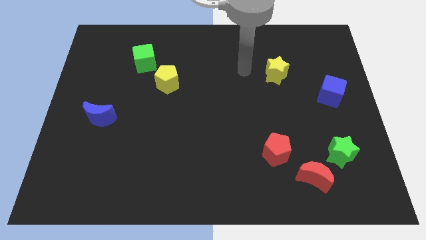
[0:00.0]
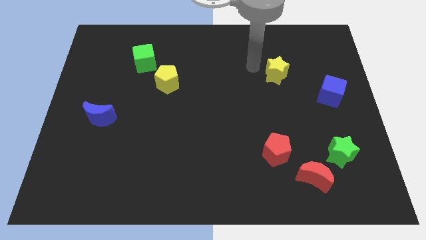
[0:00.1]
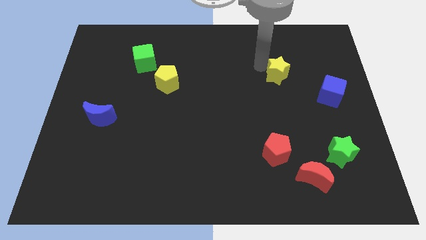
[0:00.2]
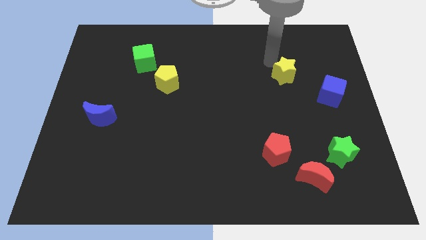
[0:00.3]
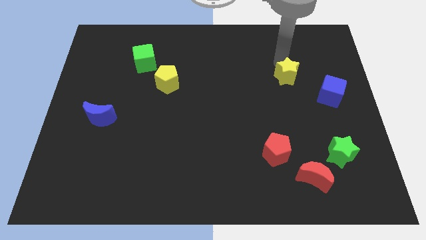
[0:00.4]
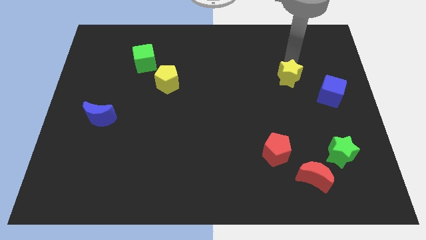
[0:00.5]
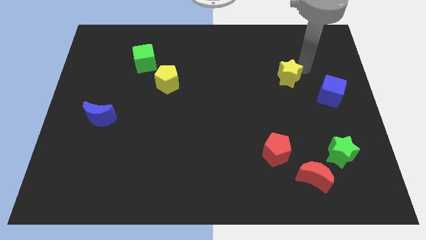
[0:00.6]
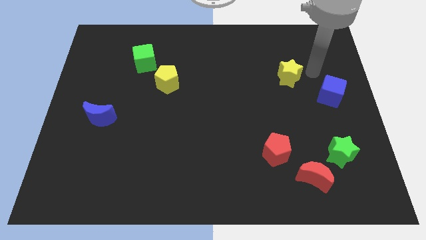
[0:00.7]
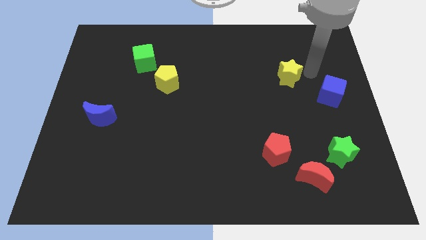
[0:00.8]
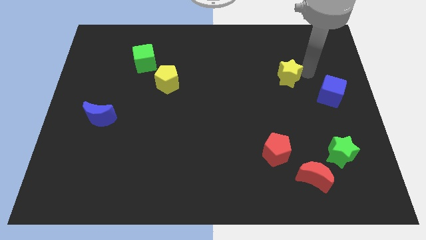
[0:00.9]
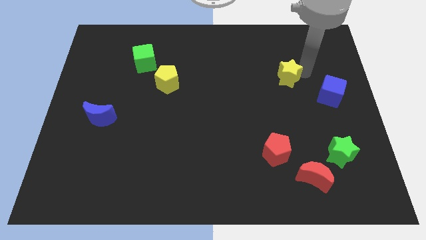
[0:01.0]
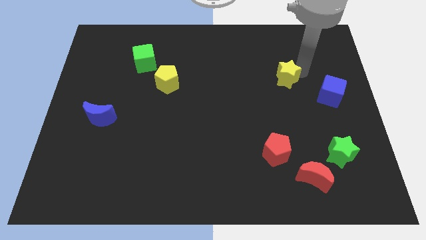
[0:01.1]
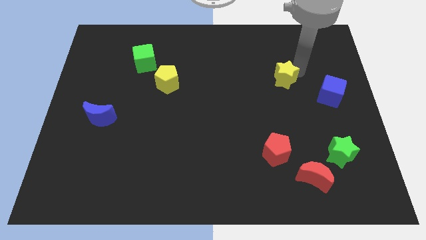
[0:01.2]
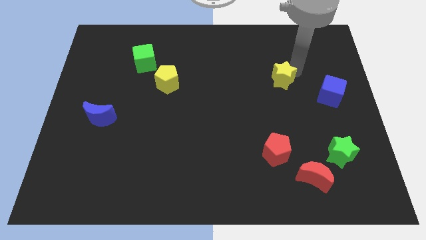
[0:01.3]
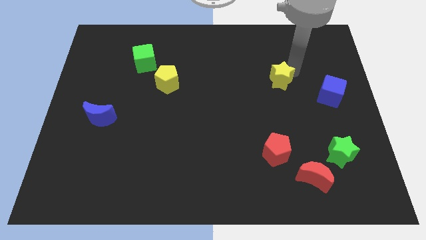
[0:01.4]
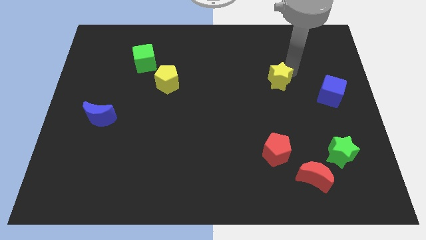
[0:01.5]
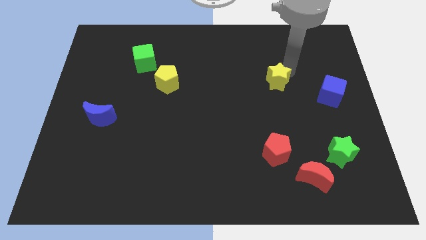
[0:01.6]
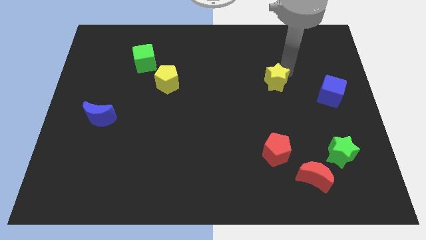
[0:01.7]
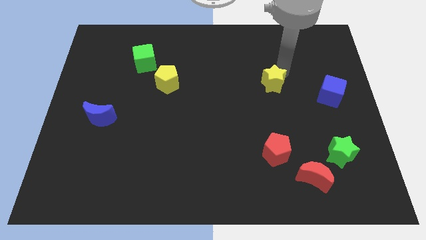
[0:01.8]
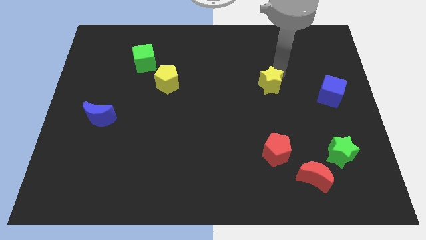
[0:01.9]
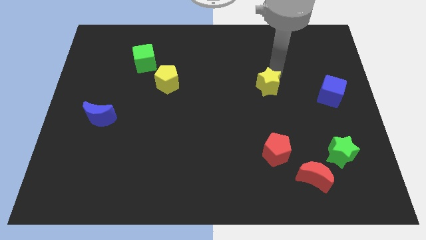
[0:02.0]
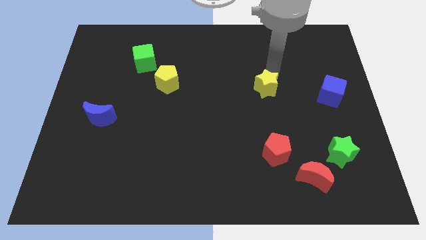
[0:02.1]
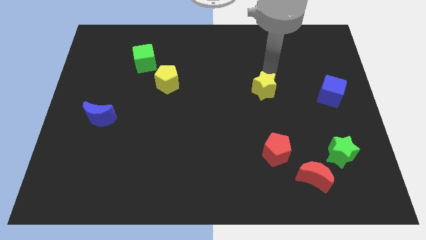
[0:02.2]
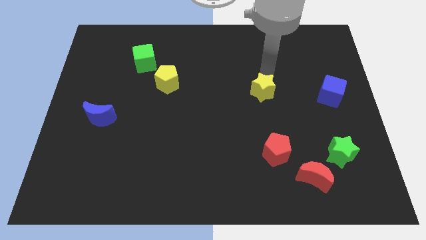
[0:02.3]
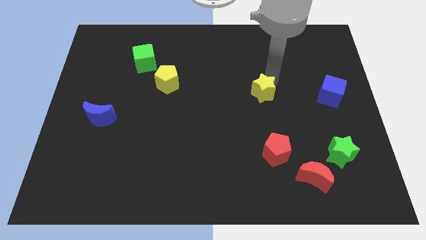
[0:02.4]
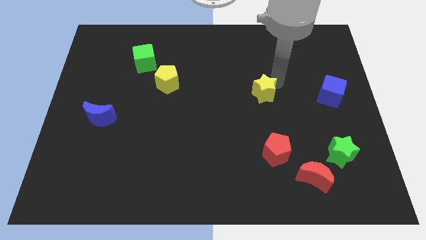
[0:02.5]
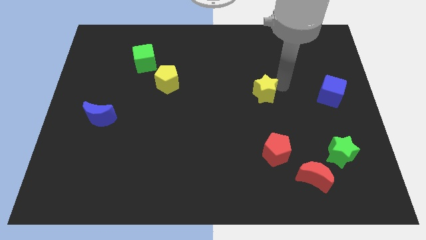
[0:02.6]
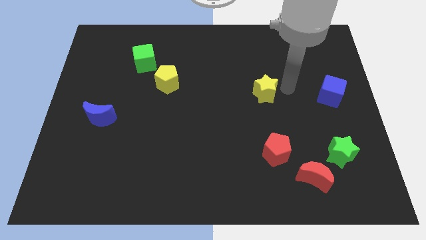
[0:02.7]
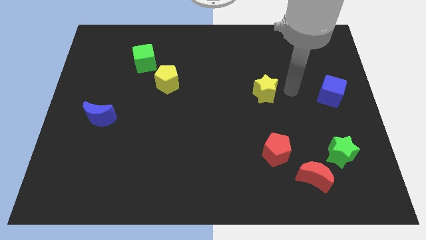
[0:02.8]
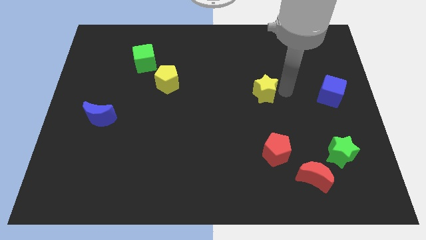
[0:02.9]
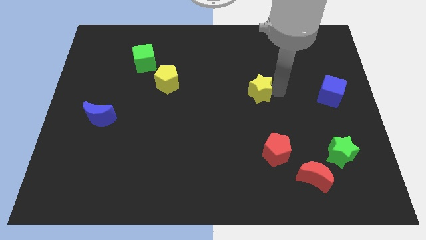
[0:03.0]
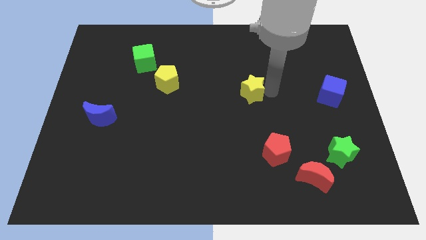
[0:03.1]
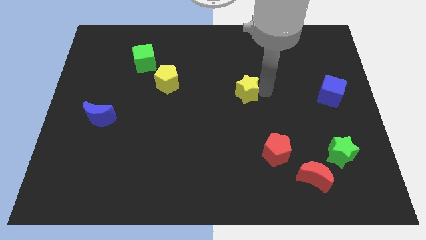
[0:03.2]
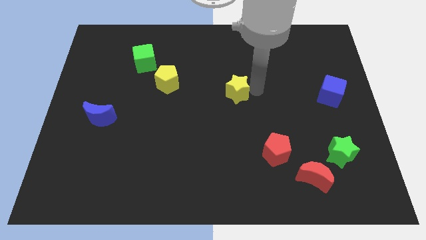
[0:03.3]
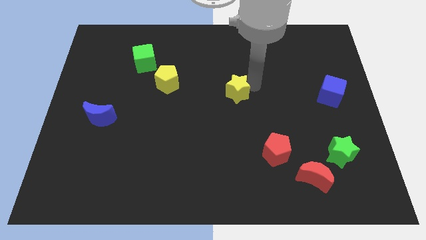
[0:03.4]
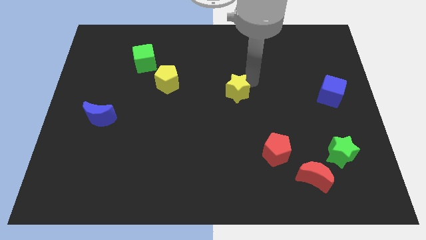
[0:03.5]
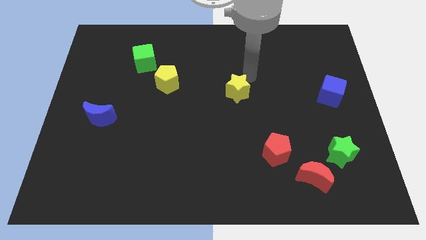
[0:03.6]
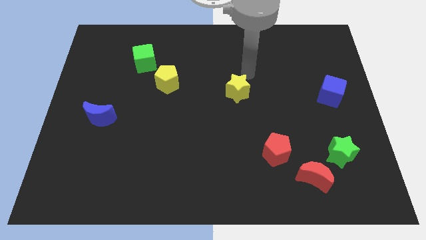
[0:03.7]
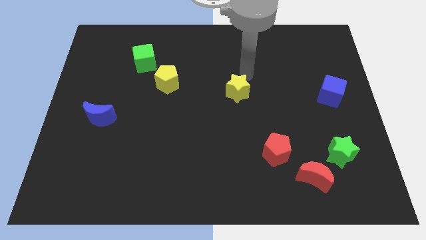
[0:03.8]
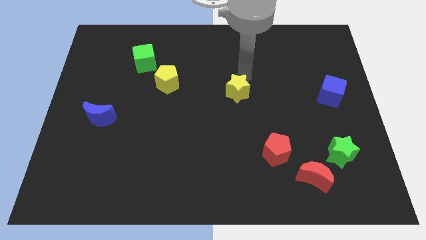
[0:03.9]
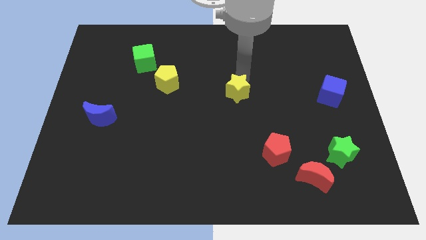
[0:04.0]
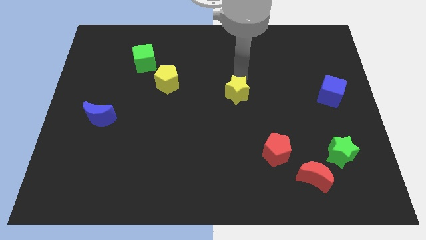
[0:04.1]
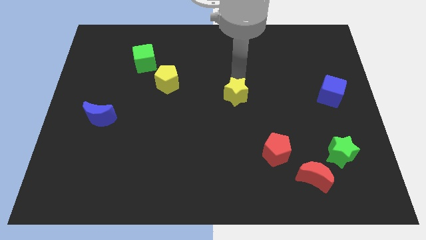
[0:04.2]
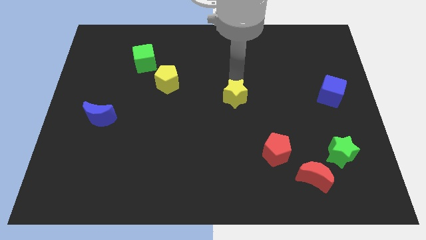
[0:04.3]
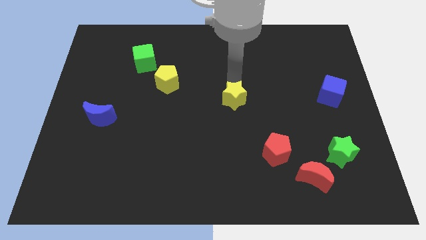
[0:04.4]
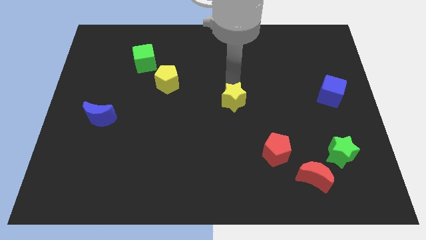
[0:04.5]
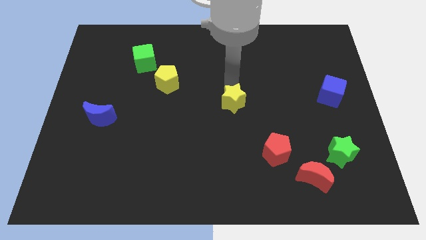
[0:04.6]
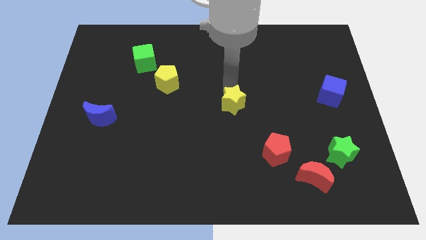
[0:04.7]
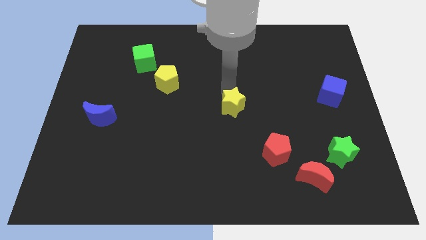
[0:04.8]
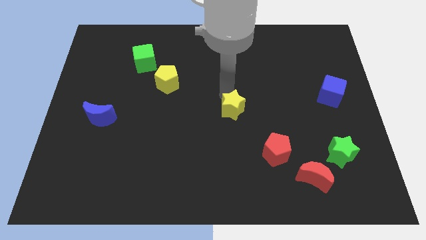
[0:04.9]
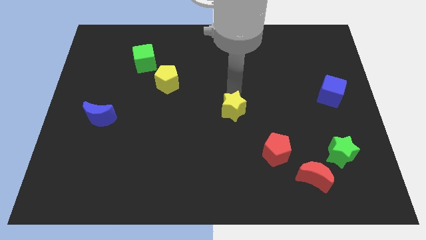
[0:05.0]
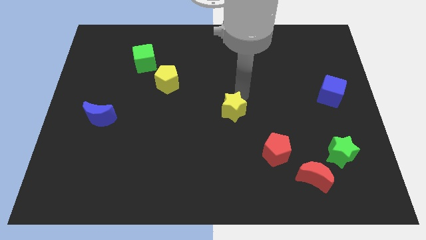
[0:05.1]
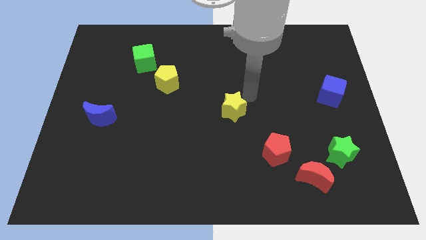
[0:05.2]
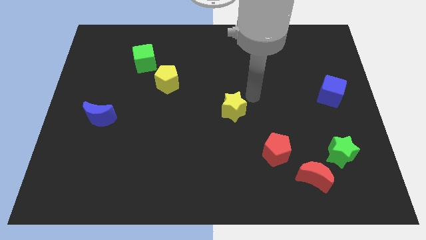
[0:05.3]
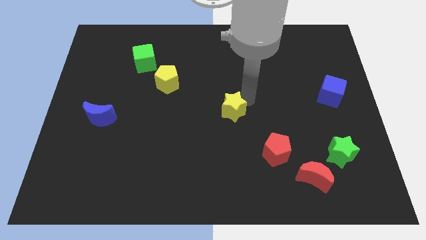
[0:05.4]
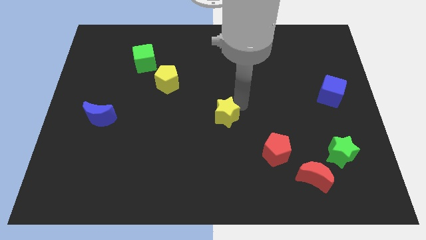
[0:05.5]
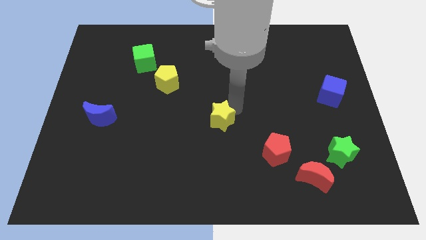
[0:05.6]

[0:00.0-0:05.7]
push the yellow star downwards and left diagonally

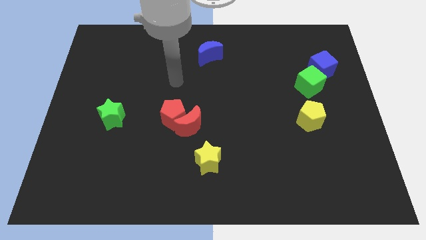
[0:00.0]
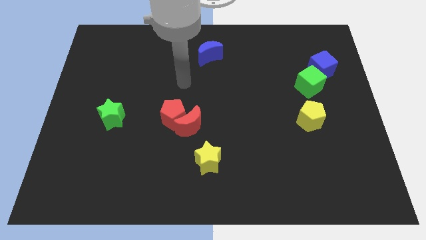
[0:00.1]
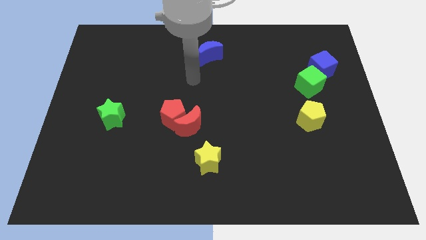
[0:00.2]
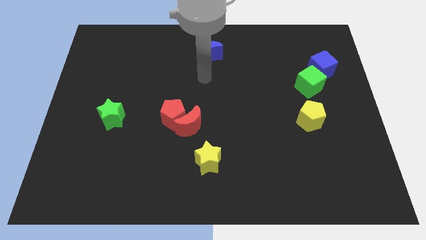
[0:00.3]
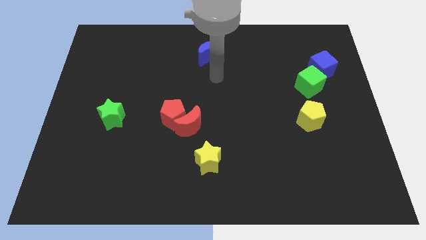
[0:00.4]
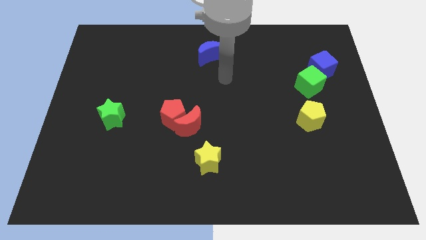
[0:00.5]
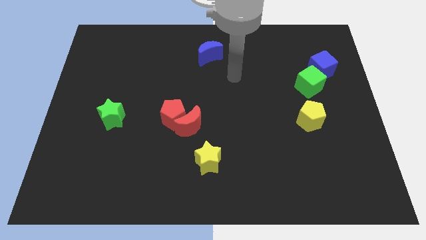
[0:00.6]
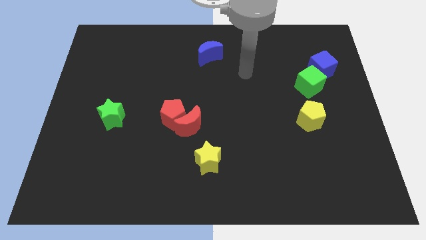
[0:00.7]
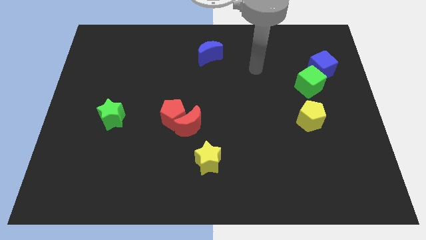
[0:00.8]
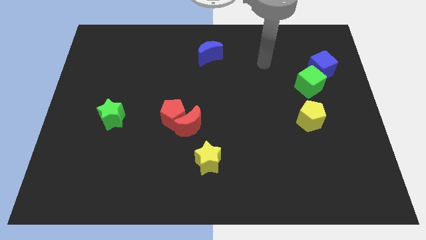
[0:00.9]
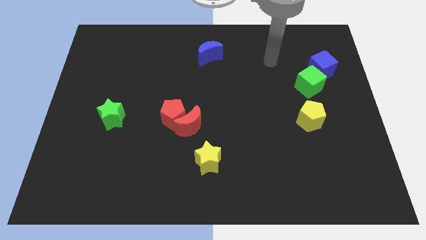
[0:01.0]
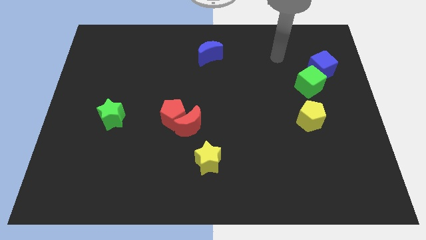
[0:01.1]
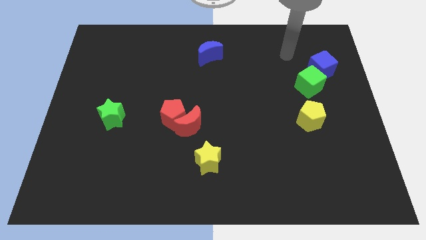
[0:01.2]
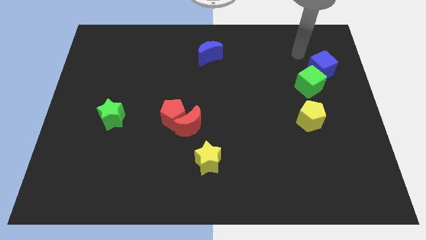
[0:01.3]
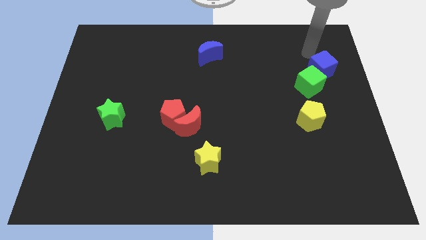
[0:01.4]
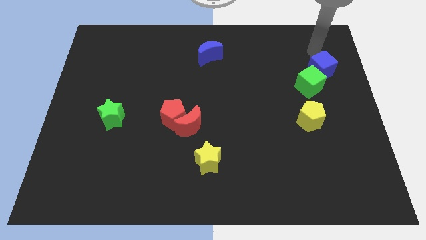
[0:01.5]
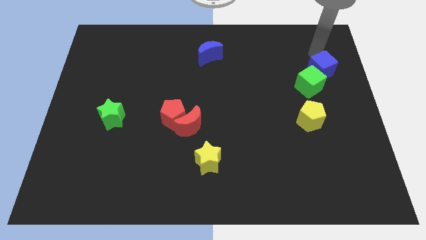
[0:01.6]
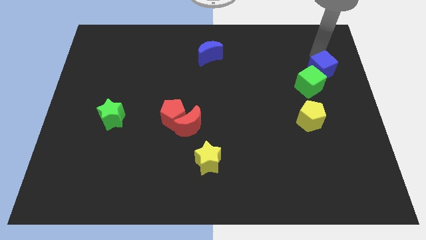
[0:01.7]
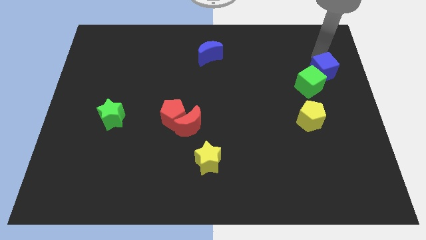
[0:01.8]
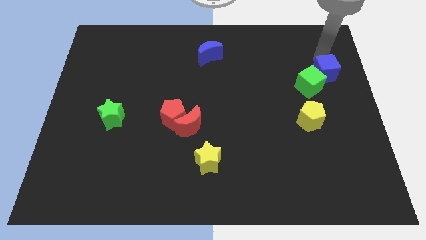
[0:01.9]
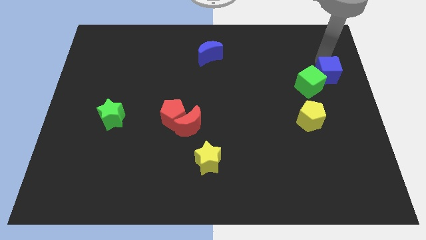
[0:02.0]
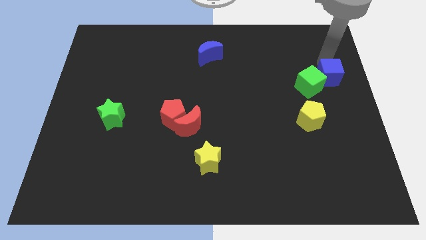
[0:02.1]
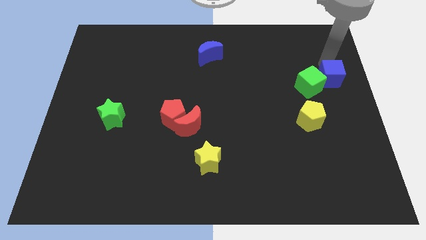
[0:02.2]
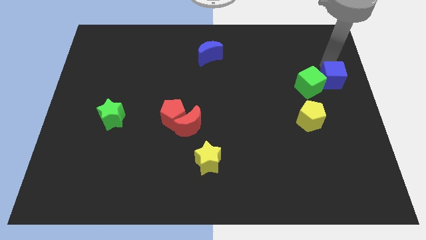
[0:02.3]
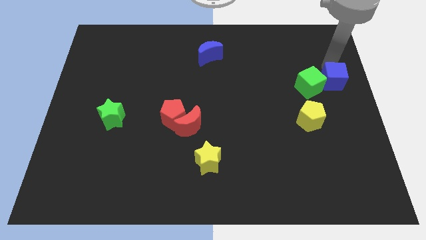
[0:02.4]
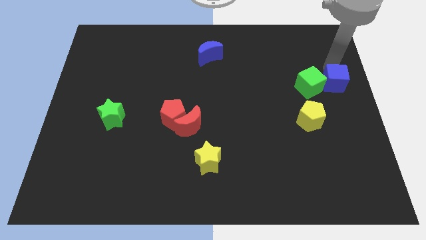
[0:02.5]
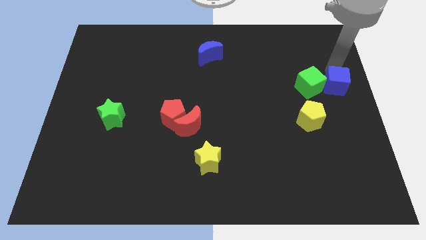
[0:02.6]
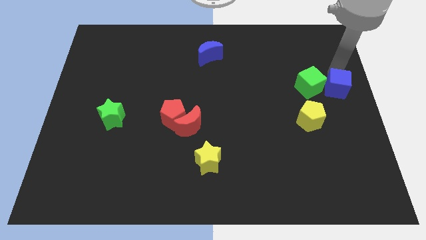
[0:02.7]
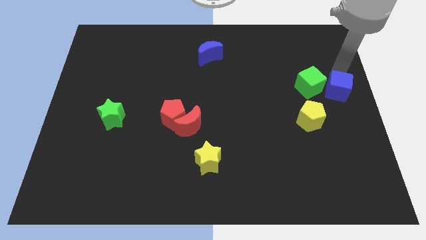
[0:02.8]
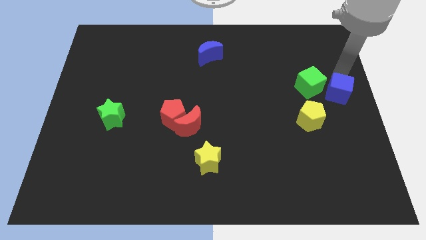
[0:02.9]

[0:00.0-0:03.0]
push the blue cube somewhat downwards
